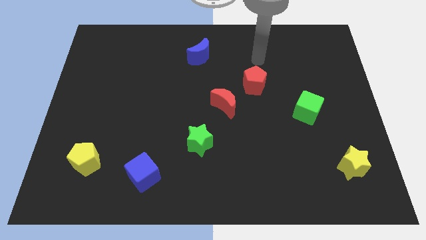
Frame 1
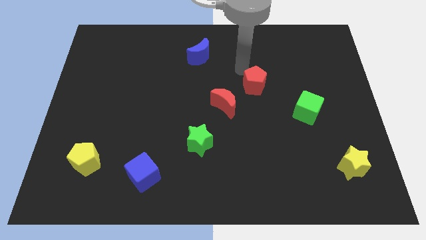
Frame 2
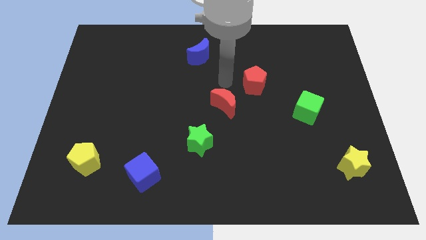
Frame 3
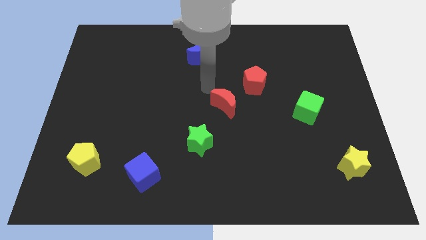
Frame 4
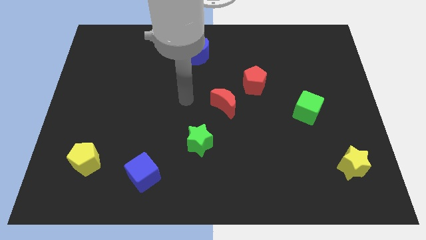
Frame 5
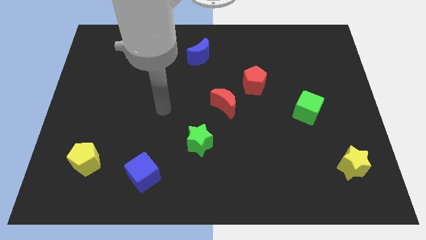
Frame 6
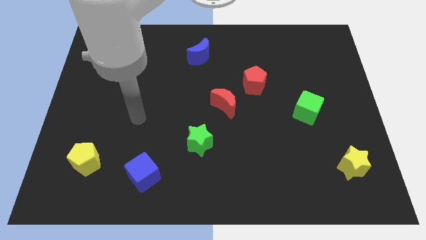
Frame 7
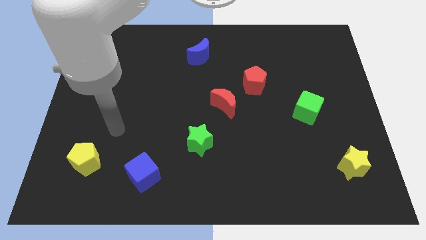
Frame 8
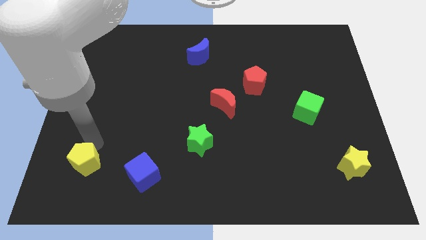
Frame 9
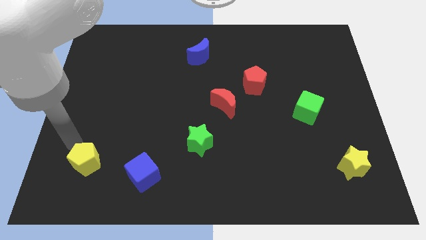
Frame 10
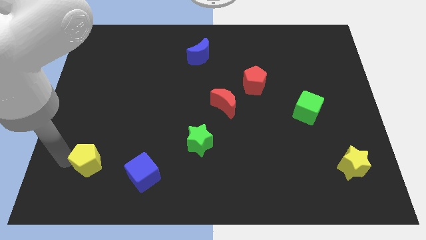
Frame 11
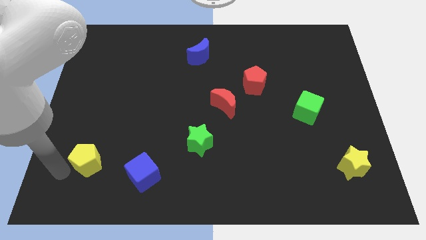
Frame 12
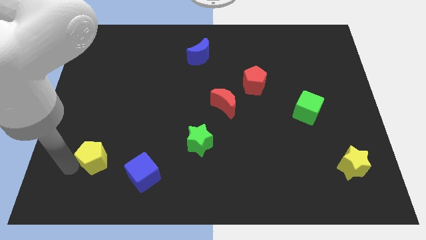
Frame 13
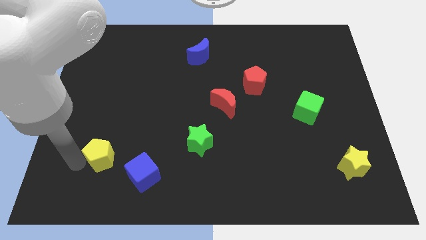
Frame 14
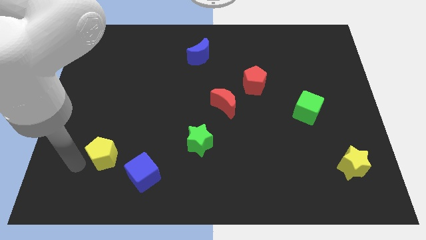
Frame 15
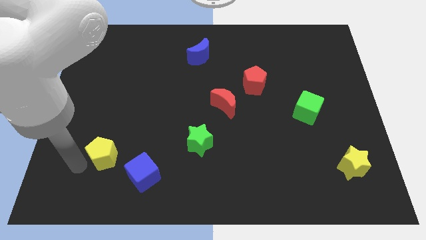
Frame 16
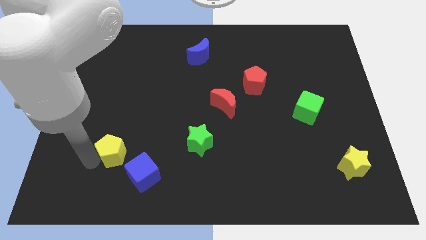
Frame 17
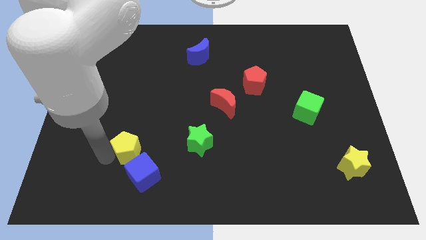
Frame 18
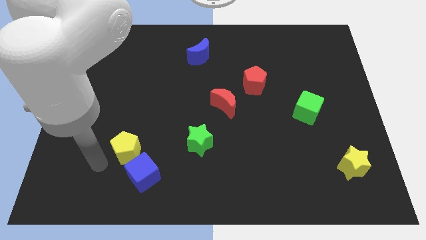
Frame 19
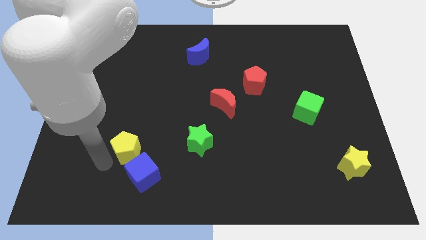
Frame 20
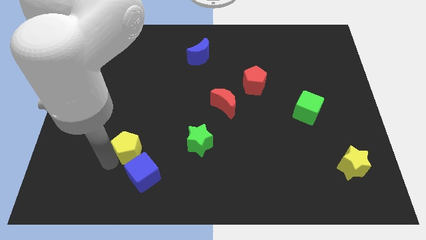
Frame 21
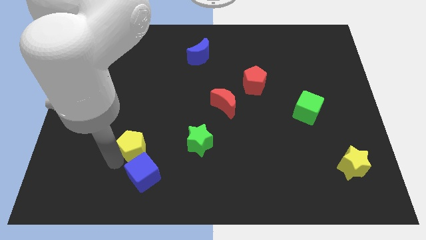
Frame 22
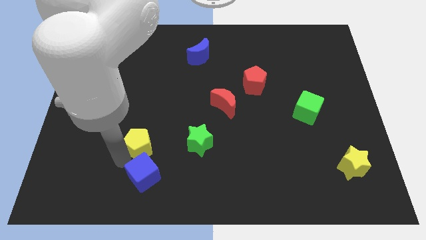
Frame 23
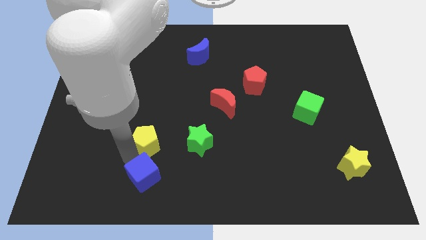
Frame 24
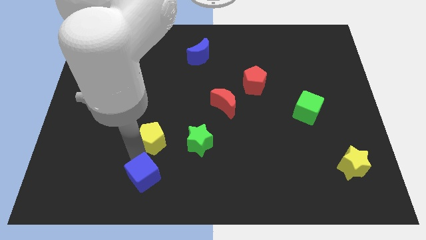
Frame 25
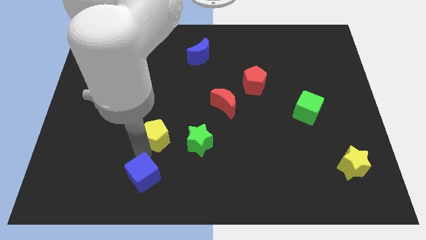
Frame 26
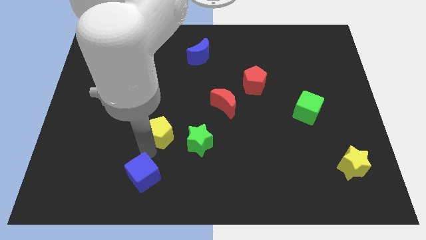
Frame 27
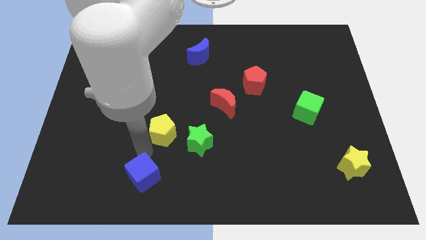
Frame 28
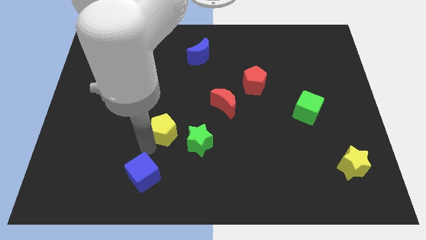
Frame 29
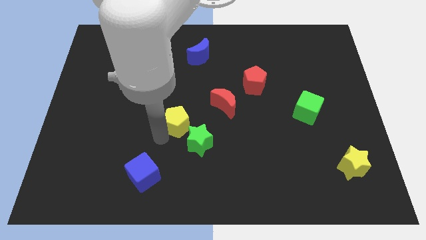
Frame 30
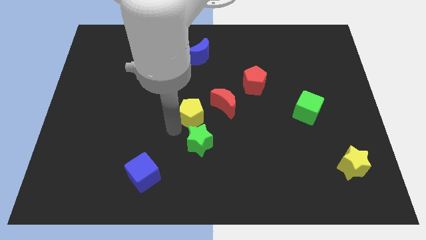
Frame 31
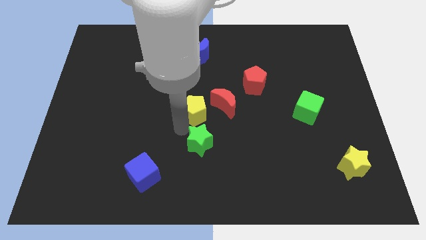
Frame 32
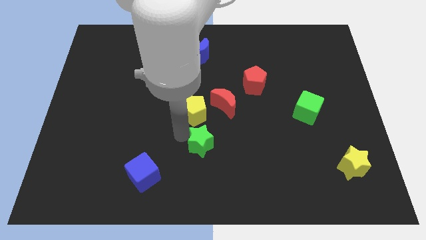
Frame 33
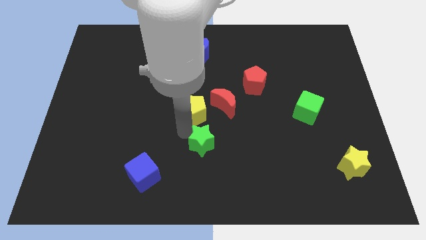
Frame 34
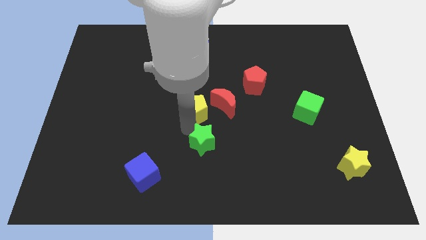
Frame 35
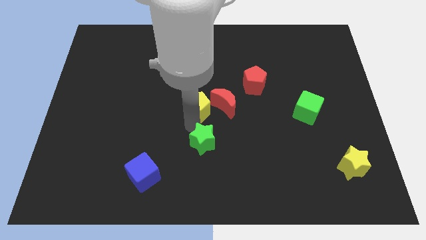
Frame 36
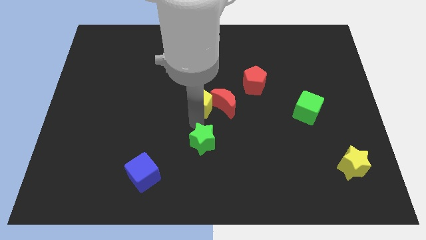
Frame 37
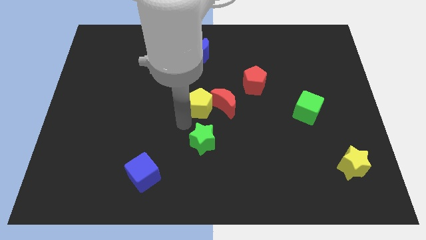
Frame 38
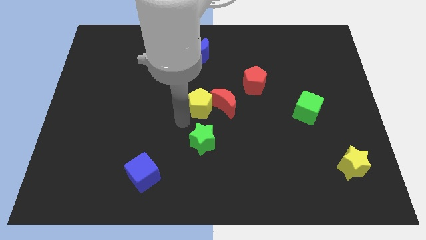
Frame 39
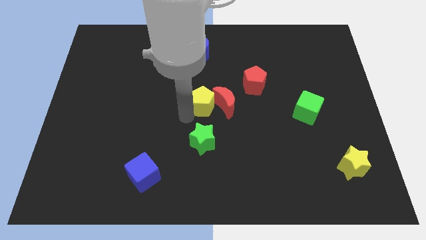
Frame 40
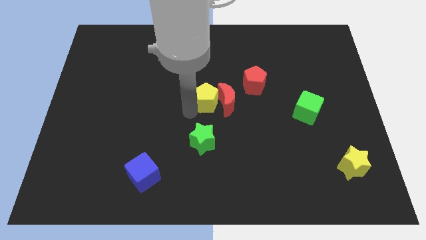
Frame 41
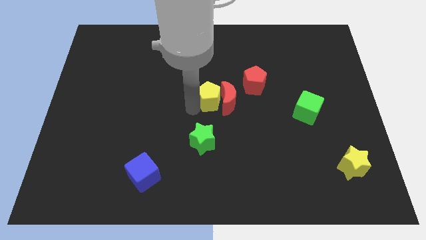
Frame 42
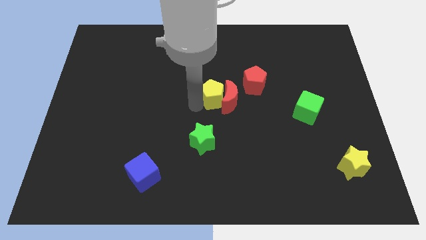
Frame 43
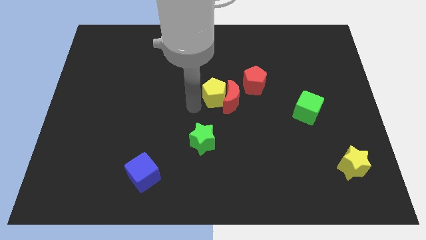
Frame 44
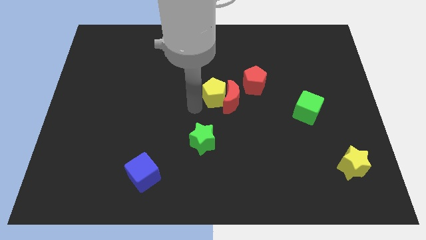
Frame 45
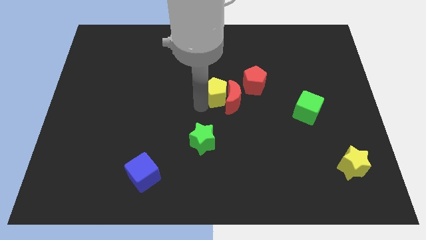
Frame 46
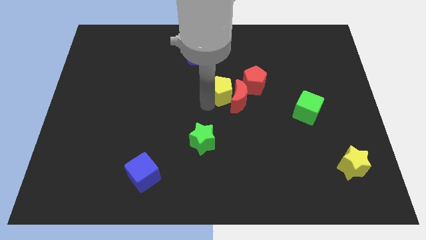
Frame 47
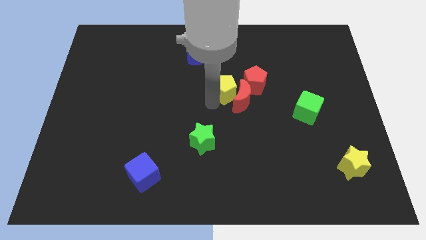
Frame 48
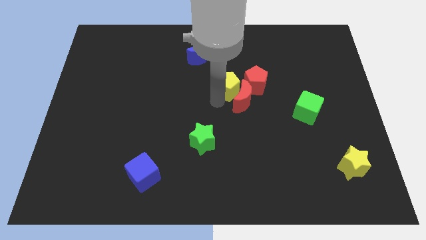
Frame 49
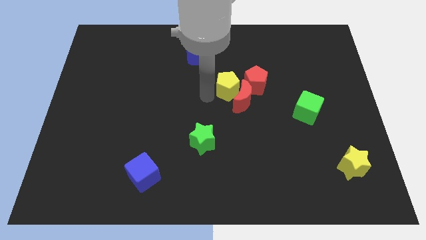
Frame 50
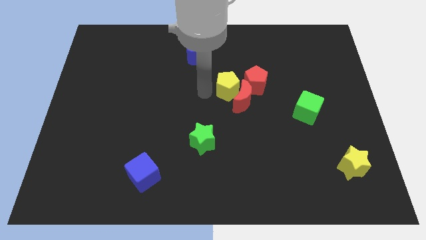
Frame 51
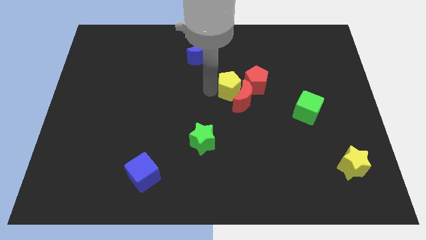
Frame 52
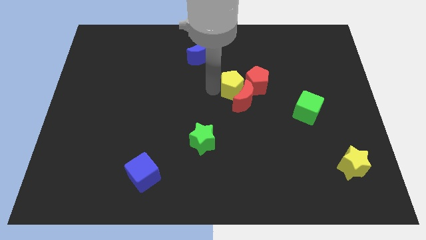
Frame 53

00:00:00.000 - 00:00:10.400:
slide the yellow pentagon next to the red pentagon

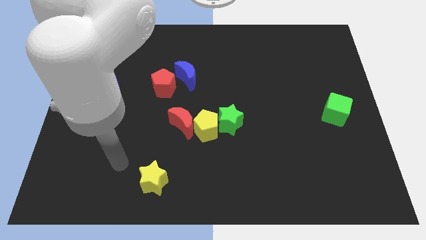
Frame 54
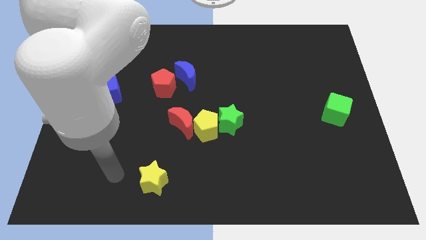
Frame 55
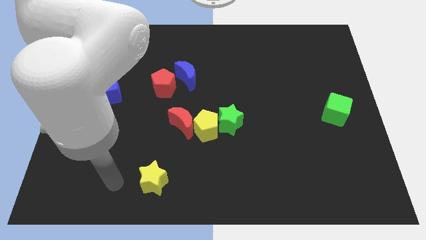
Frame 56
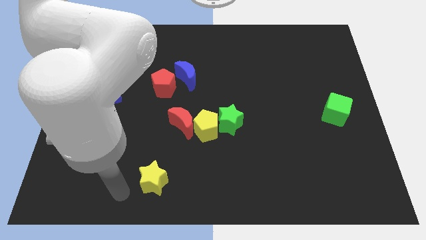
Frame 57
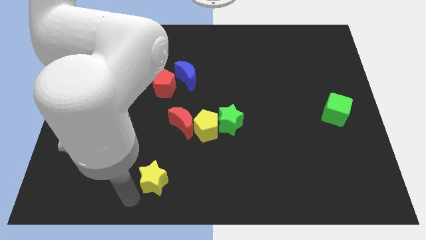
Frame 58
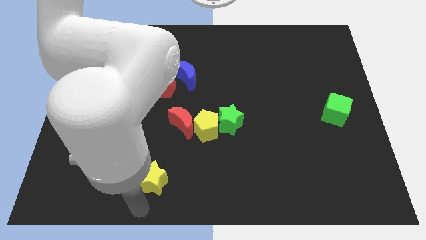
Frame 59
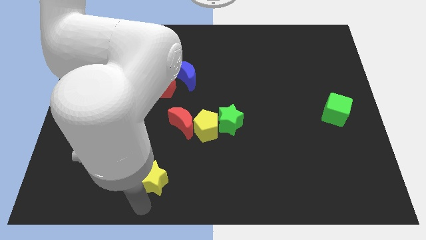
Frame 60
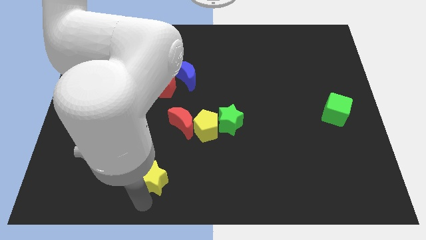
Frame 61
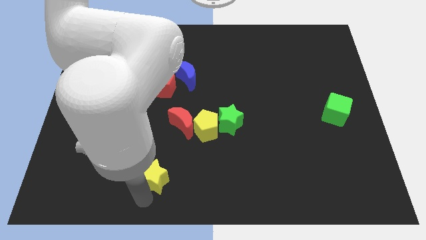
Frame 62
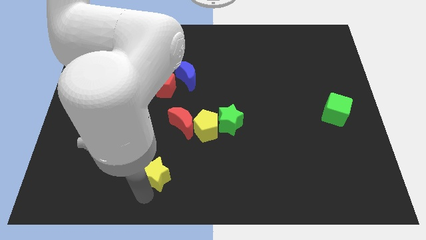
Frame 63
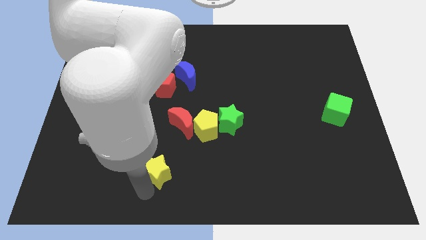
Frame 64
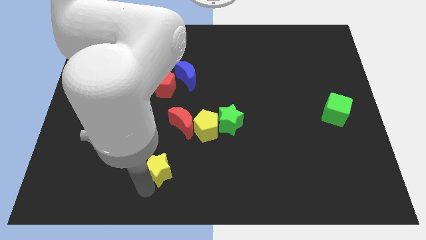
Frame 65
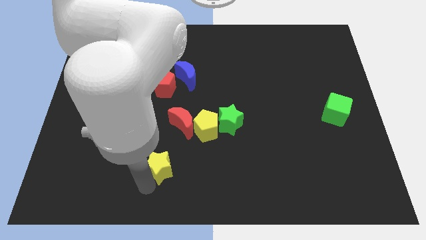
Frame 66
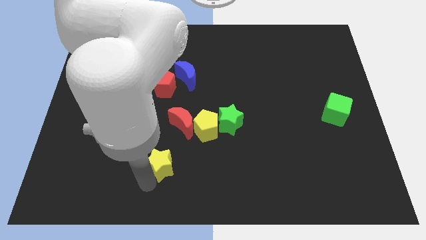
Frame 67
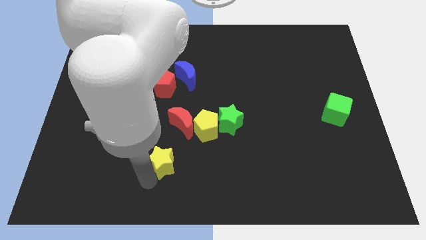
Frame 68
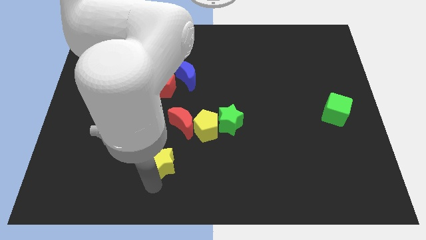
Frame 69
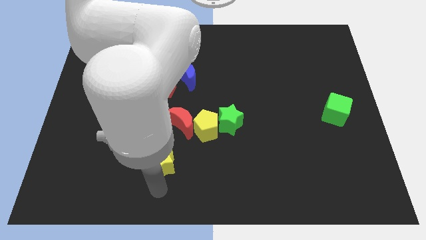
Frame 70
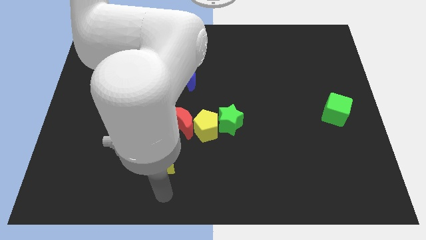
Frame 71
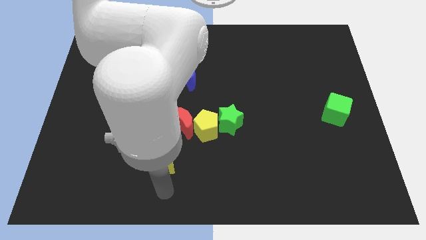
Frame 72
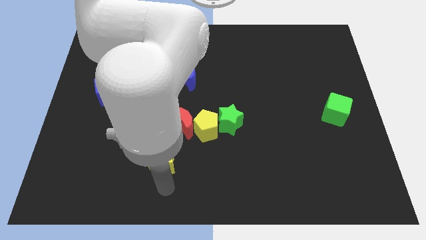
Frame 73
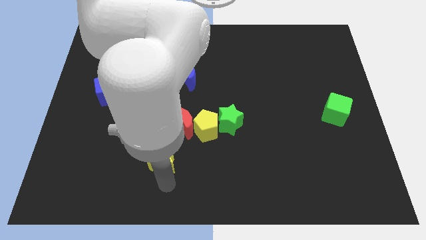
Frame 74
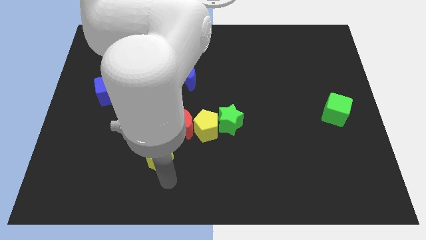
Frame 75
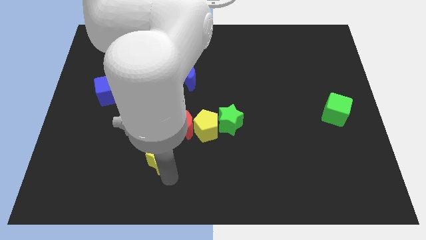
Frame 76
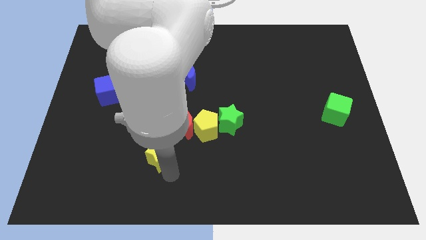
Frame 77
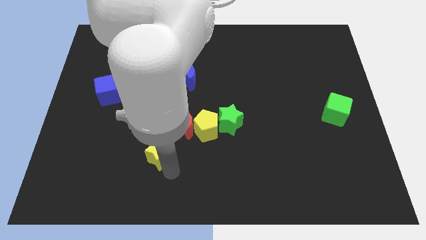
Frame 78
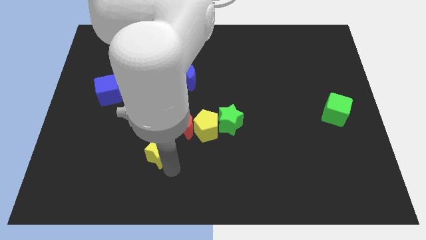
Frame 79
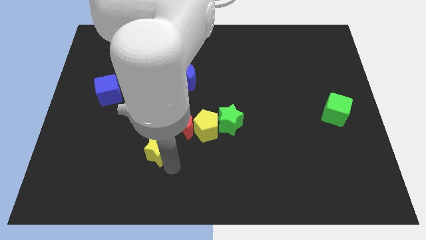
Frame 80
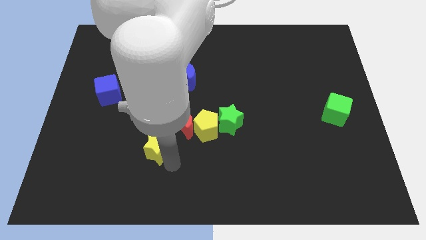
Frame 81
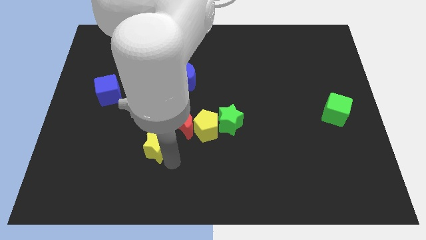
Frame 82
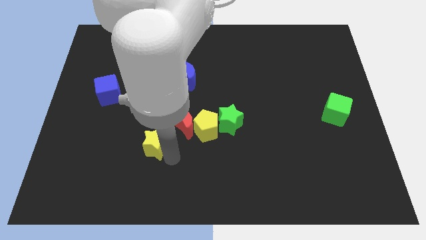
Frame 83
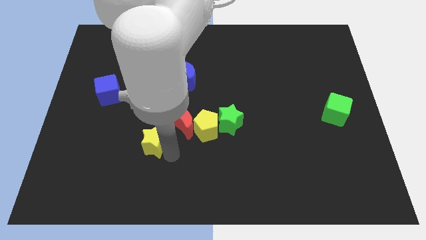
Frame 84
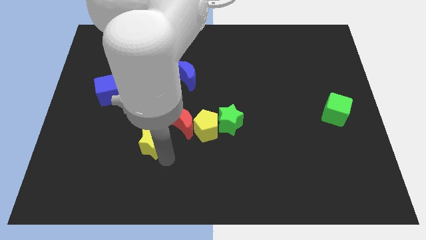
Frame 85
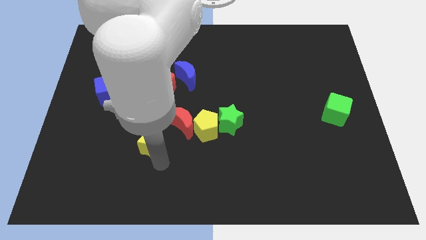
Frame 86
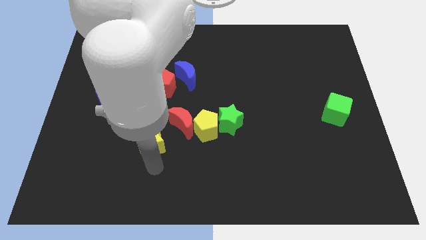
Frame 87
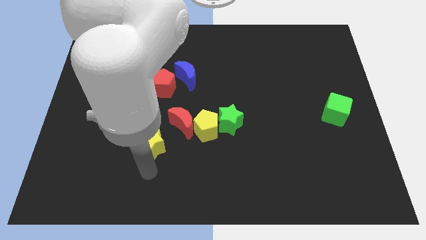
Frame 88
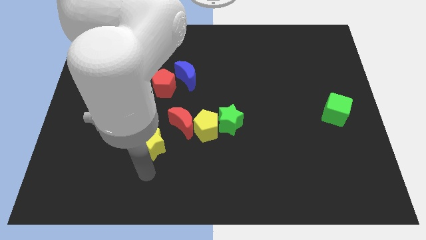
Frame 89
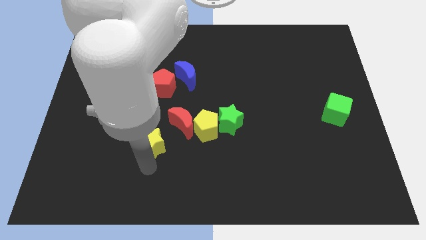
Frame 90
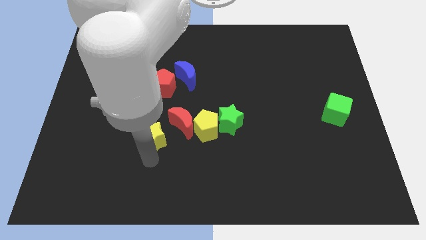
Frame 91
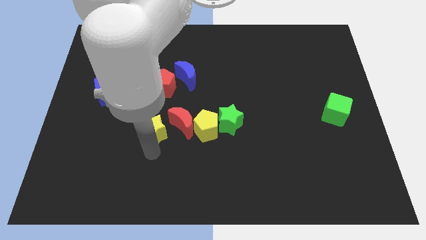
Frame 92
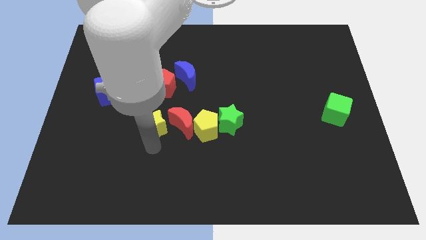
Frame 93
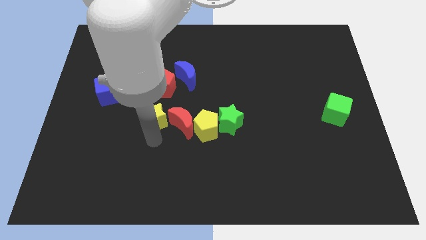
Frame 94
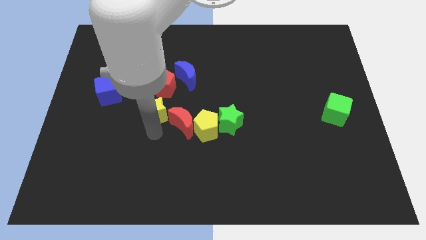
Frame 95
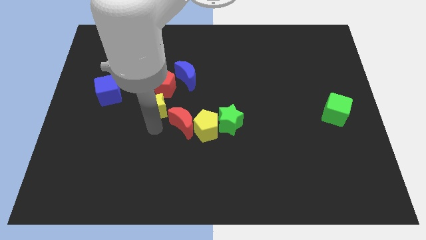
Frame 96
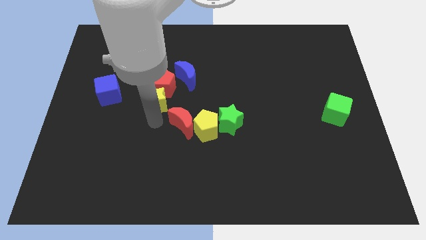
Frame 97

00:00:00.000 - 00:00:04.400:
push the yellow star towards the red pentagon
